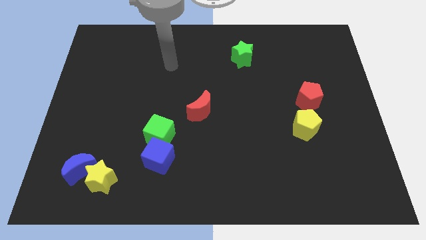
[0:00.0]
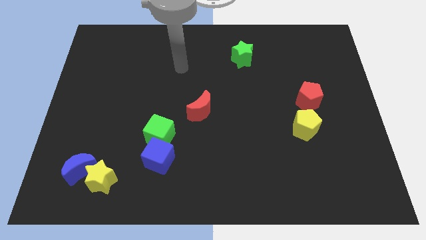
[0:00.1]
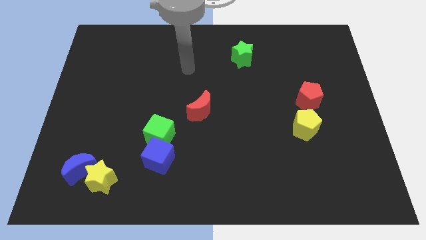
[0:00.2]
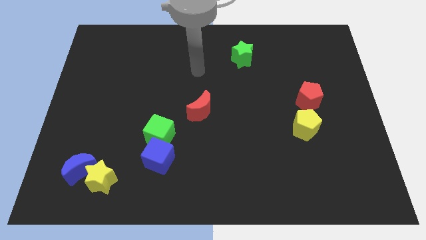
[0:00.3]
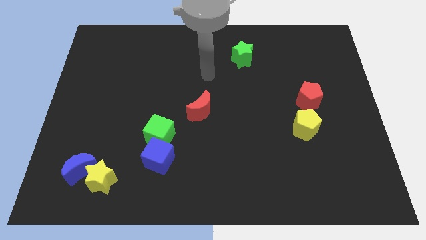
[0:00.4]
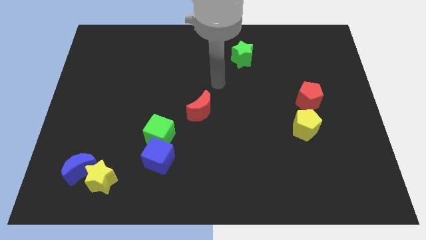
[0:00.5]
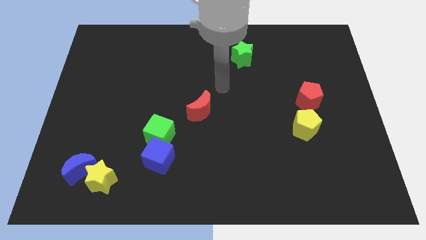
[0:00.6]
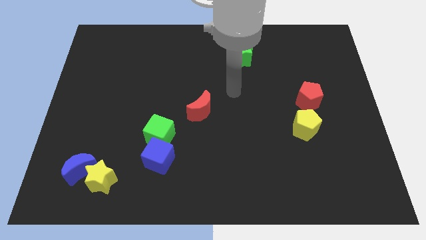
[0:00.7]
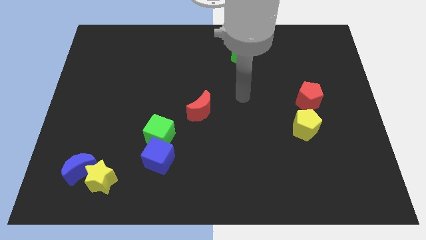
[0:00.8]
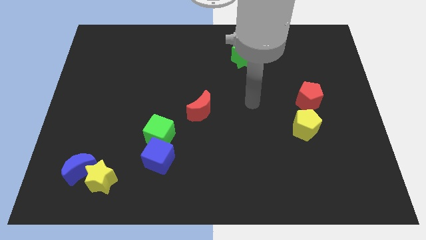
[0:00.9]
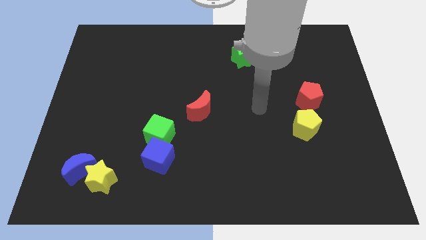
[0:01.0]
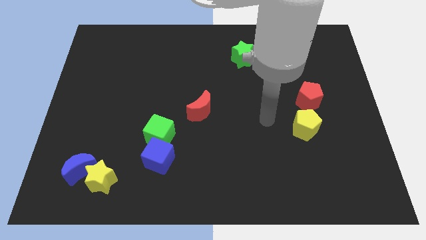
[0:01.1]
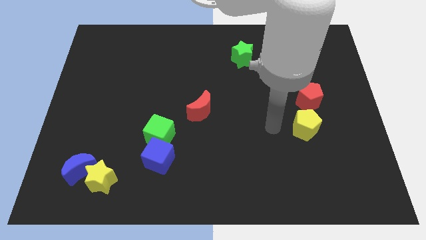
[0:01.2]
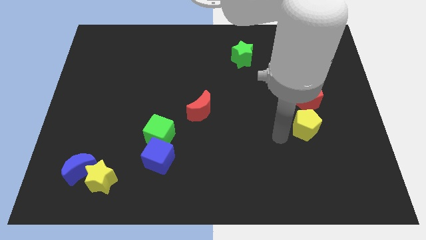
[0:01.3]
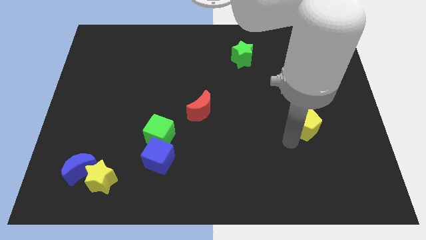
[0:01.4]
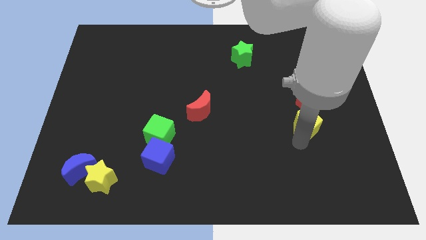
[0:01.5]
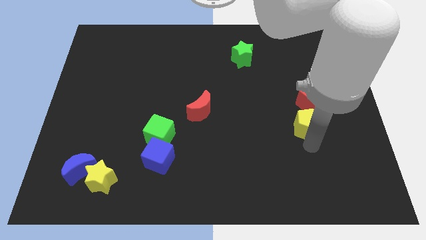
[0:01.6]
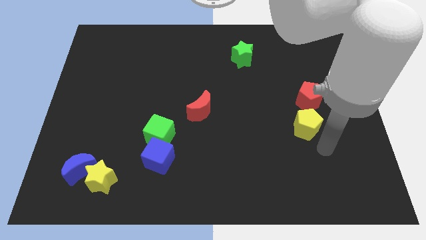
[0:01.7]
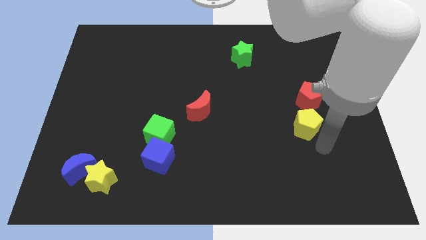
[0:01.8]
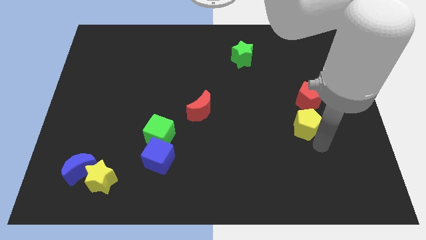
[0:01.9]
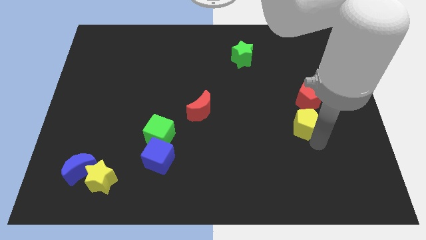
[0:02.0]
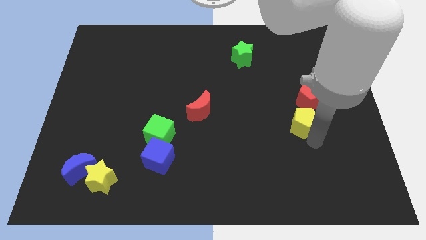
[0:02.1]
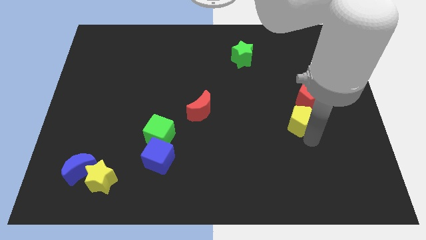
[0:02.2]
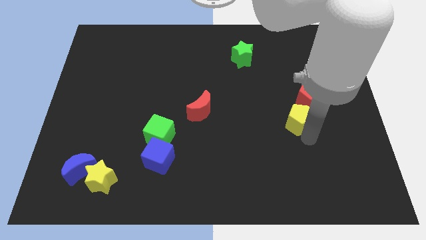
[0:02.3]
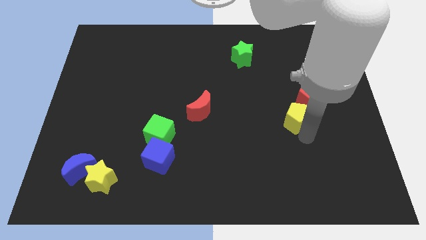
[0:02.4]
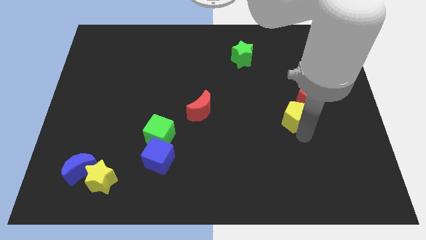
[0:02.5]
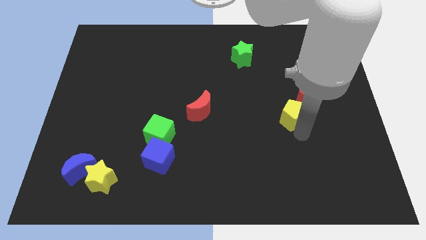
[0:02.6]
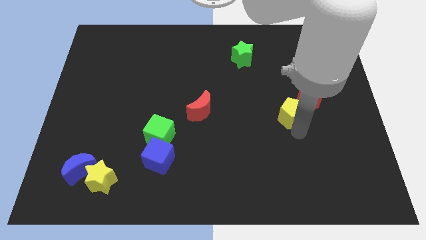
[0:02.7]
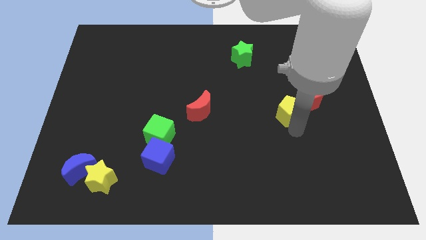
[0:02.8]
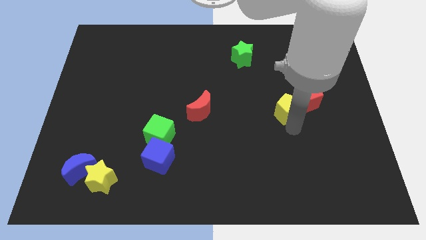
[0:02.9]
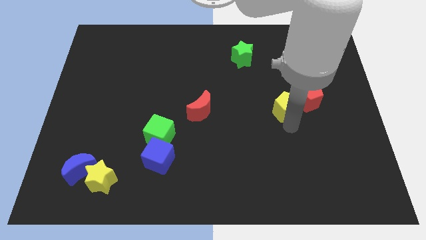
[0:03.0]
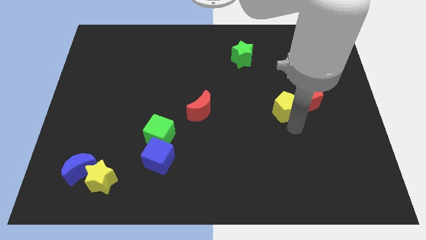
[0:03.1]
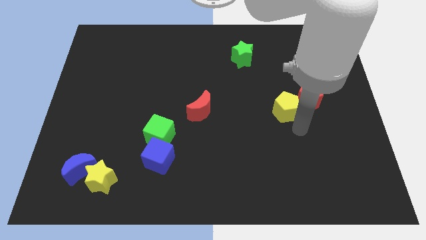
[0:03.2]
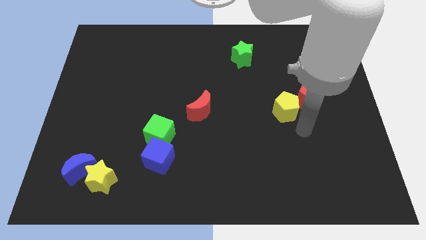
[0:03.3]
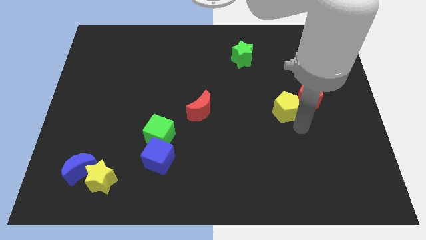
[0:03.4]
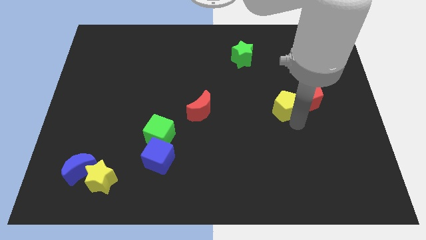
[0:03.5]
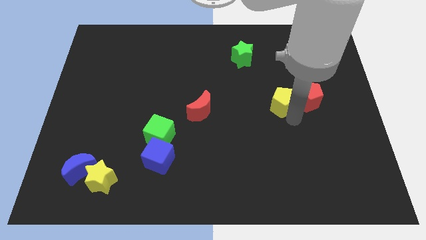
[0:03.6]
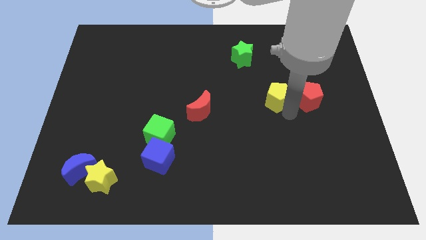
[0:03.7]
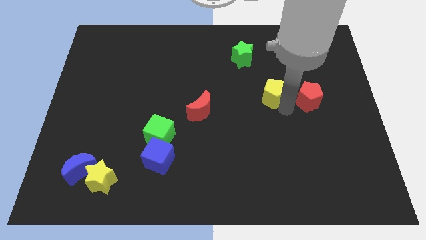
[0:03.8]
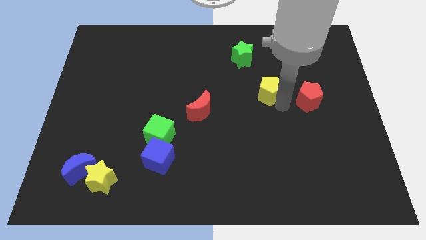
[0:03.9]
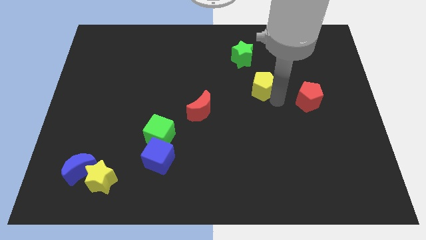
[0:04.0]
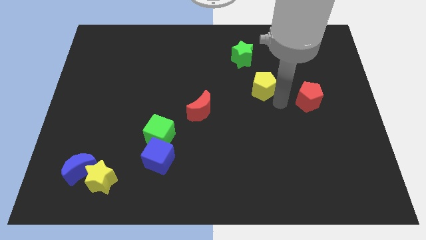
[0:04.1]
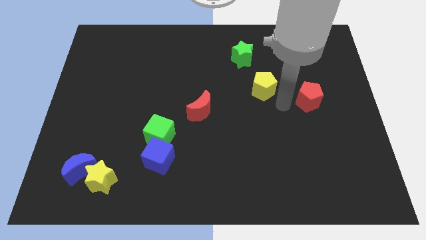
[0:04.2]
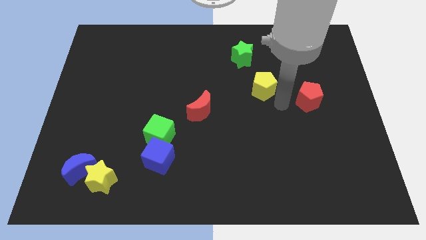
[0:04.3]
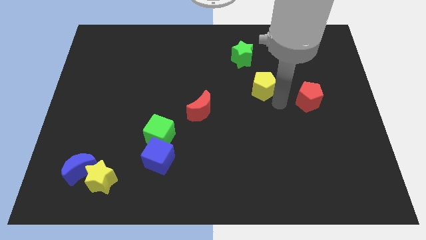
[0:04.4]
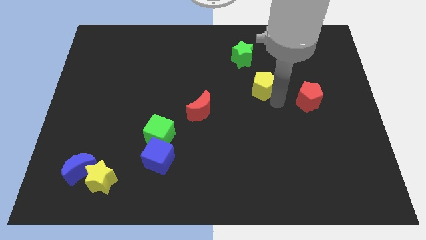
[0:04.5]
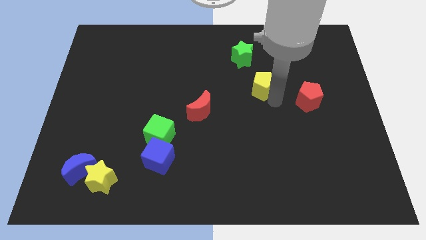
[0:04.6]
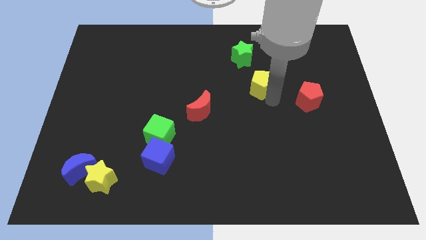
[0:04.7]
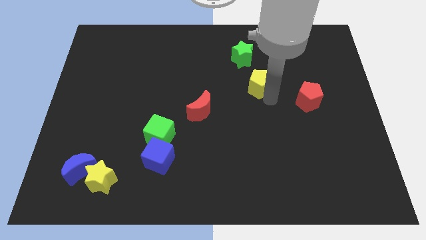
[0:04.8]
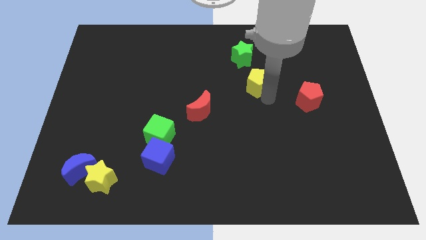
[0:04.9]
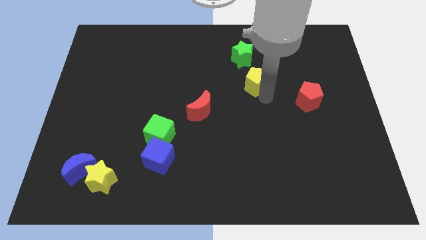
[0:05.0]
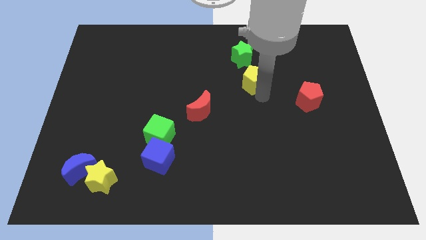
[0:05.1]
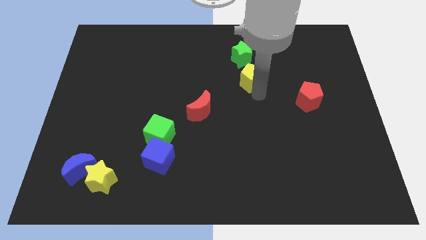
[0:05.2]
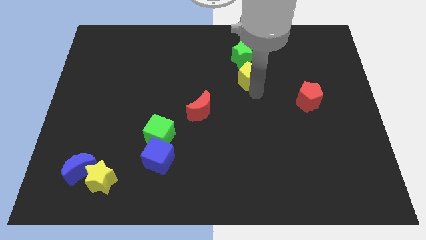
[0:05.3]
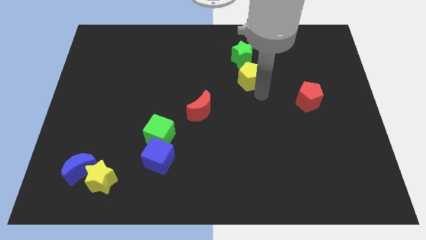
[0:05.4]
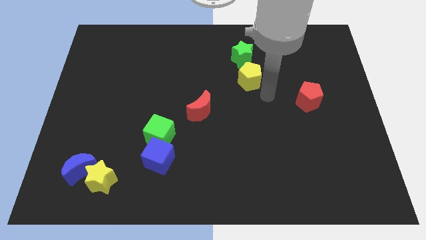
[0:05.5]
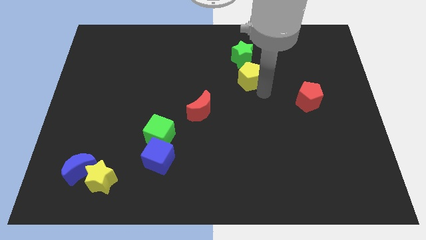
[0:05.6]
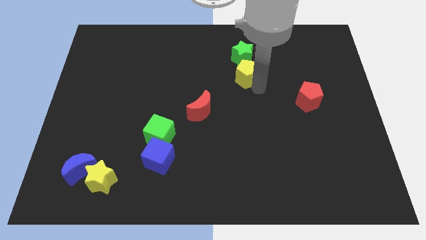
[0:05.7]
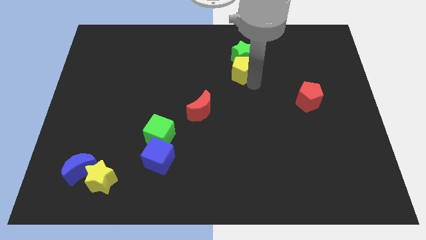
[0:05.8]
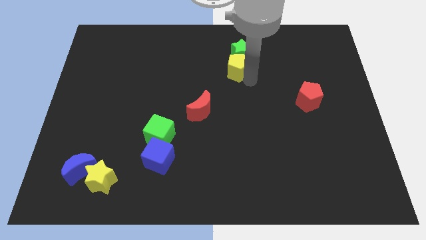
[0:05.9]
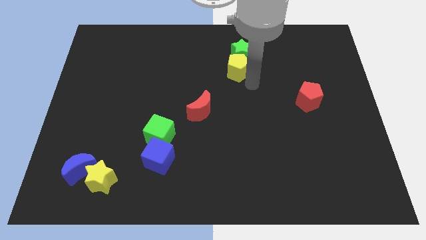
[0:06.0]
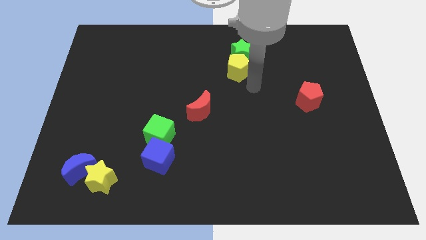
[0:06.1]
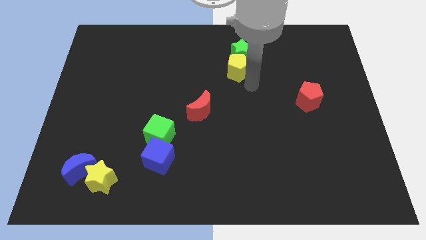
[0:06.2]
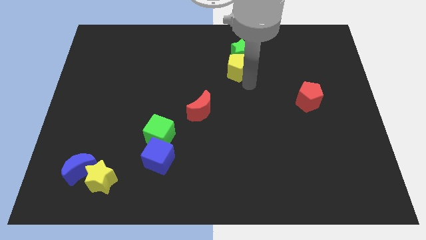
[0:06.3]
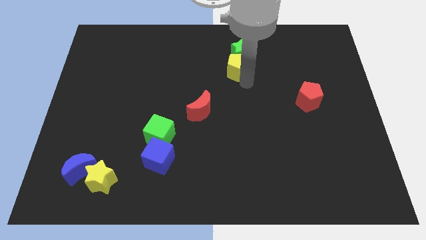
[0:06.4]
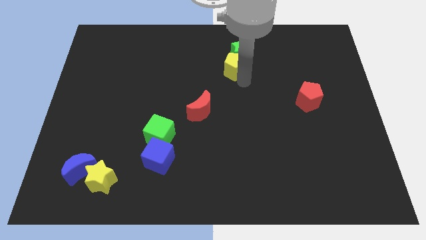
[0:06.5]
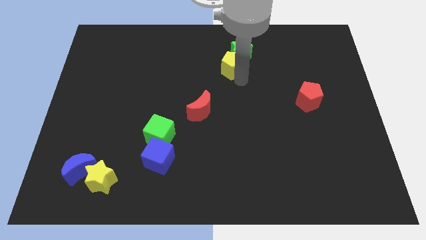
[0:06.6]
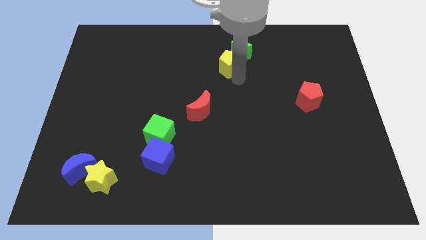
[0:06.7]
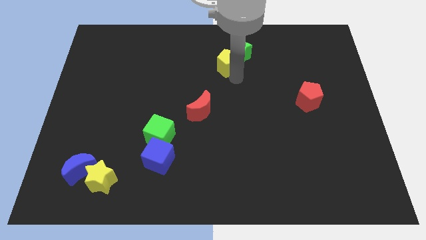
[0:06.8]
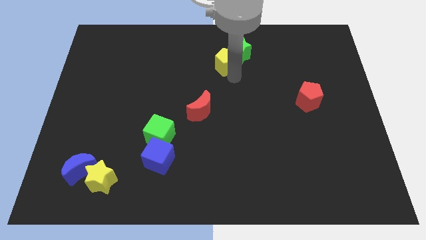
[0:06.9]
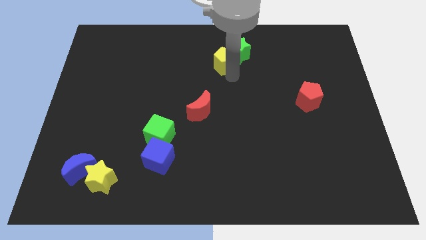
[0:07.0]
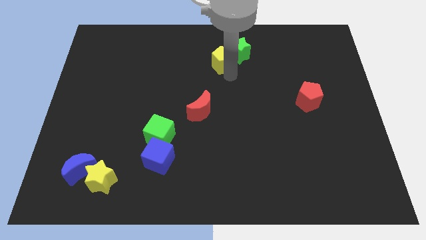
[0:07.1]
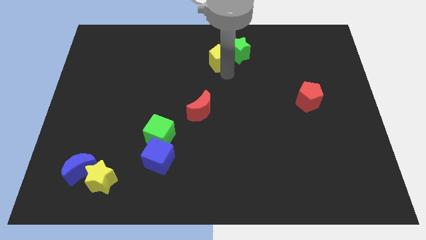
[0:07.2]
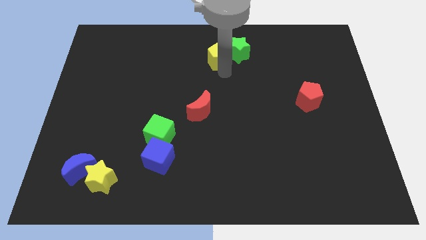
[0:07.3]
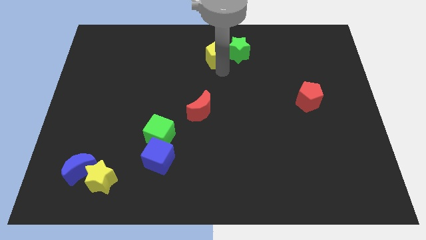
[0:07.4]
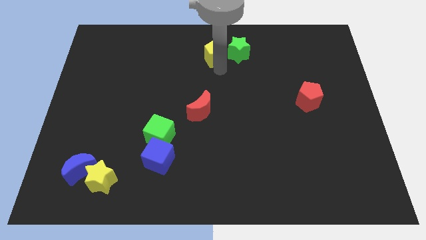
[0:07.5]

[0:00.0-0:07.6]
put the yellow pentagon to the top
